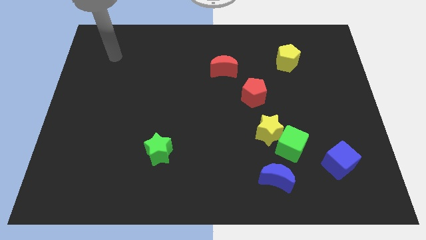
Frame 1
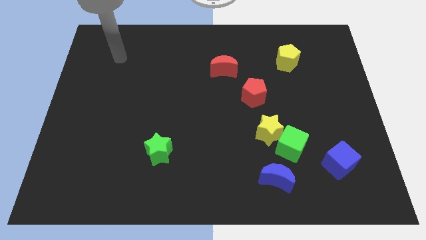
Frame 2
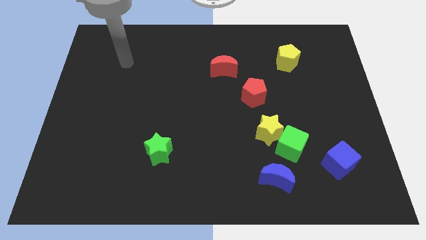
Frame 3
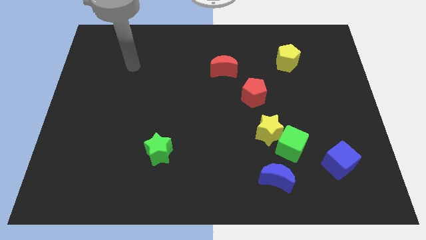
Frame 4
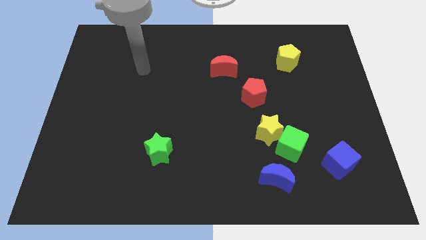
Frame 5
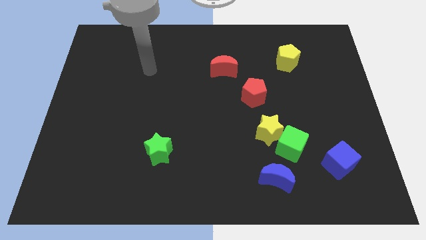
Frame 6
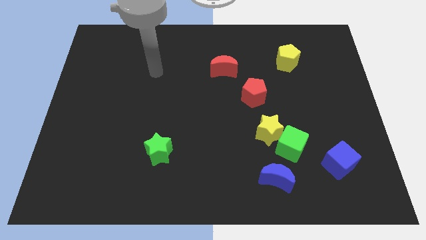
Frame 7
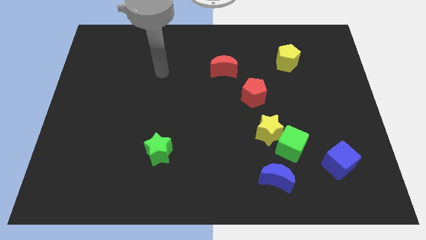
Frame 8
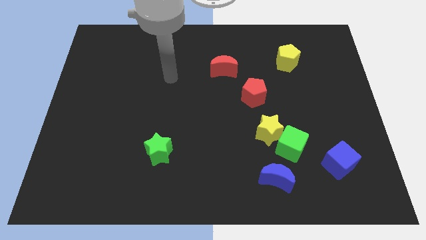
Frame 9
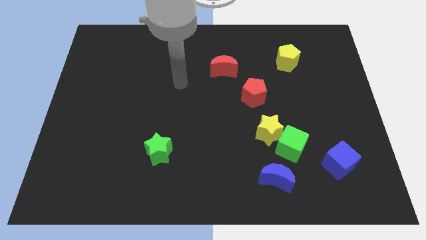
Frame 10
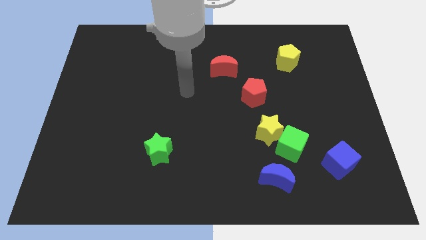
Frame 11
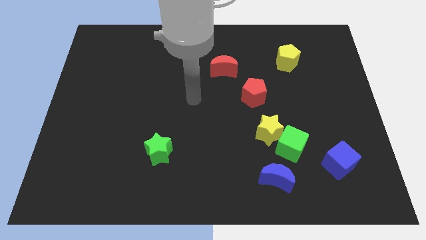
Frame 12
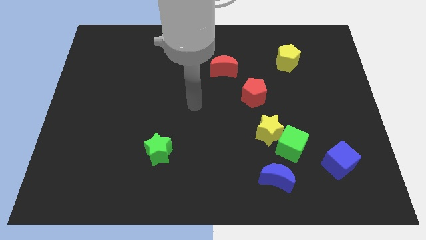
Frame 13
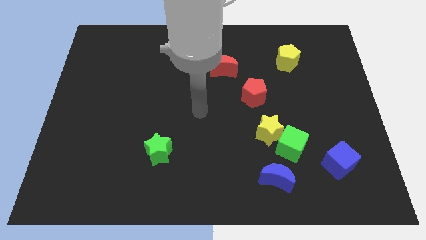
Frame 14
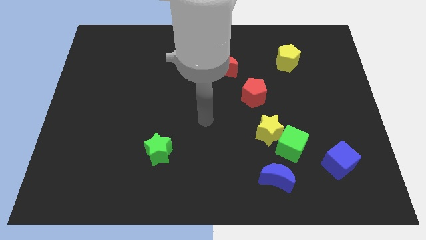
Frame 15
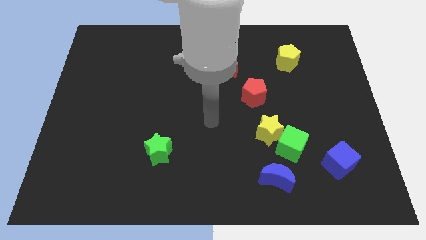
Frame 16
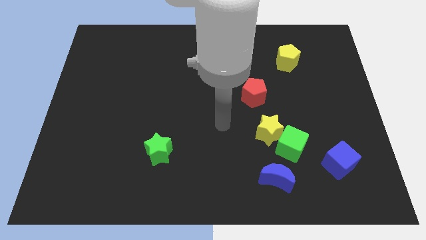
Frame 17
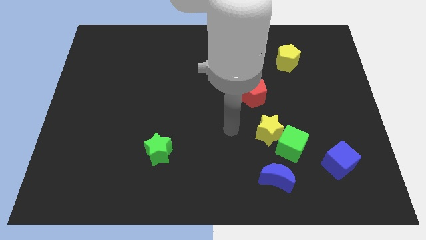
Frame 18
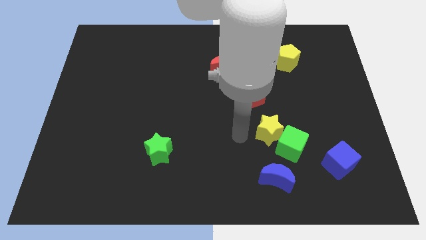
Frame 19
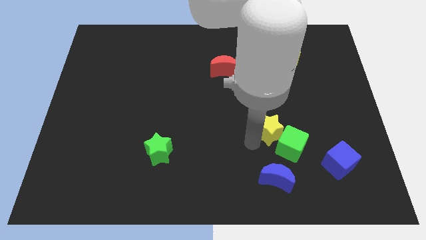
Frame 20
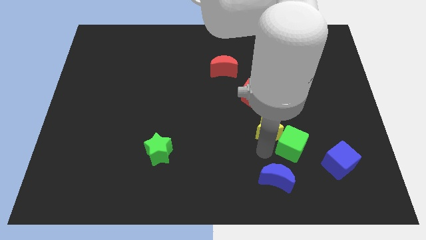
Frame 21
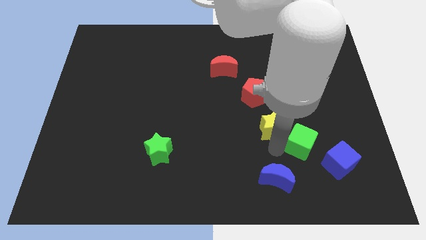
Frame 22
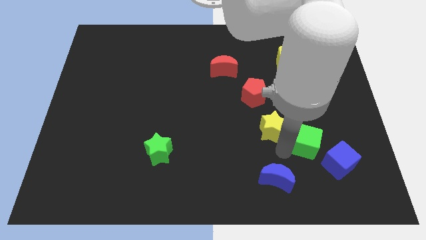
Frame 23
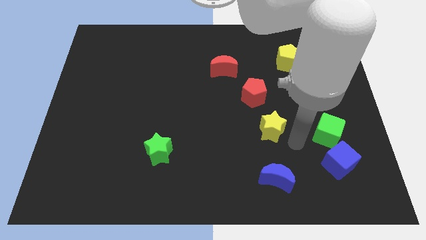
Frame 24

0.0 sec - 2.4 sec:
separate the yellow star from the green cube

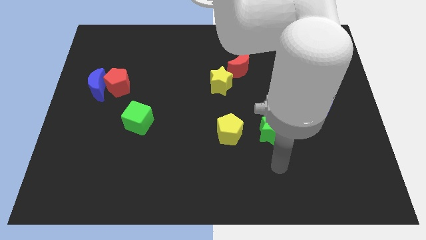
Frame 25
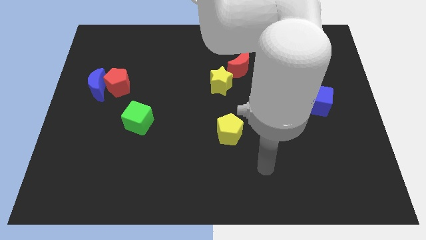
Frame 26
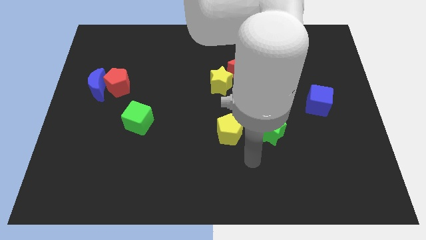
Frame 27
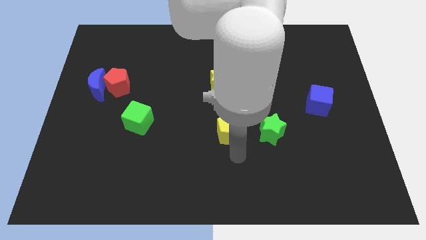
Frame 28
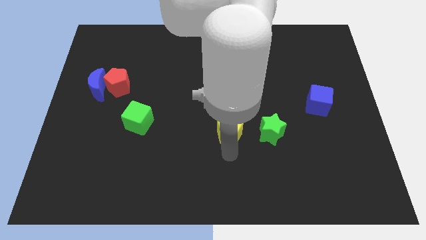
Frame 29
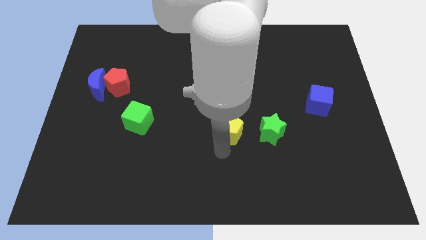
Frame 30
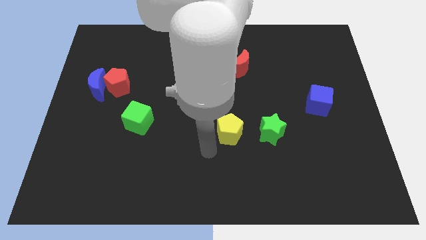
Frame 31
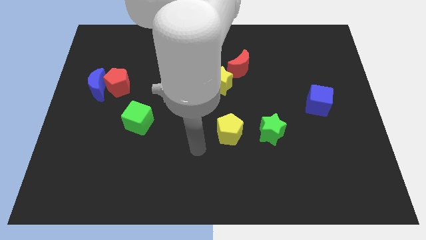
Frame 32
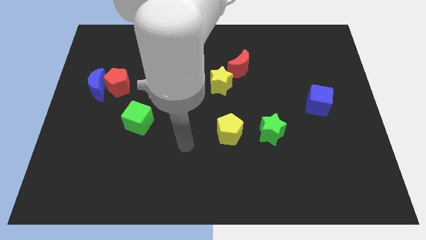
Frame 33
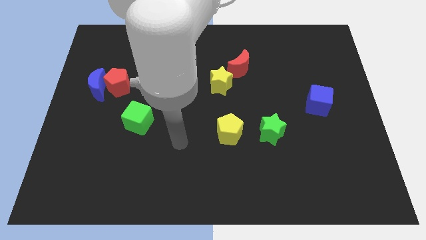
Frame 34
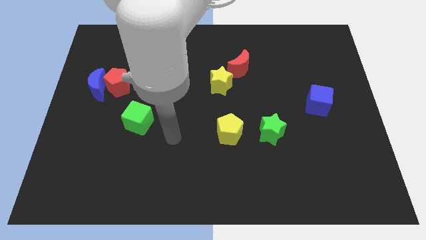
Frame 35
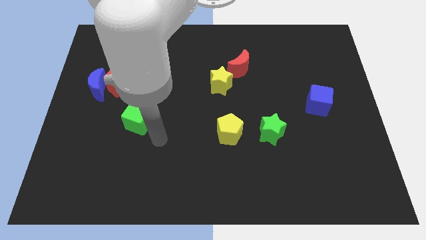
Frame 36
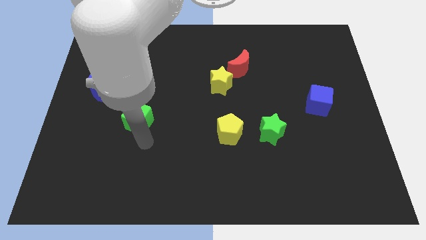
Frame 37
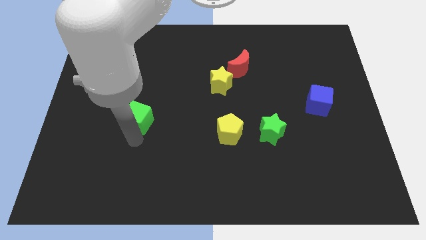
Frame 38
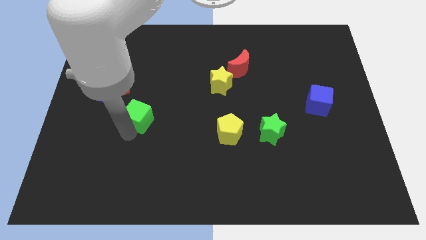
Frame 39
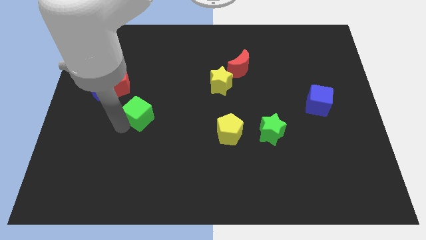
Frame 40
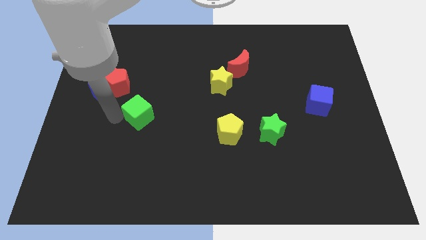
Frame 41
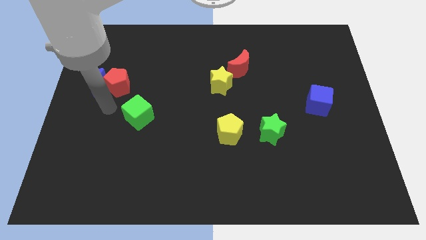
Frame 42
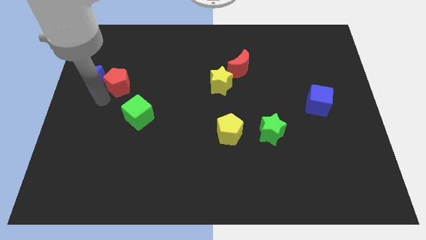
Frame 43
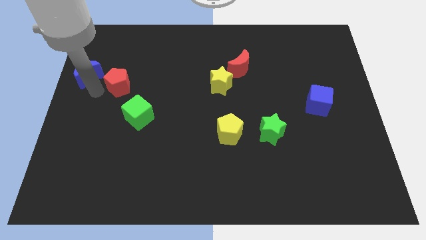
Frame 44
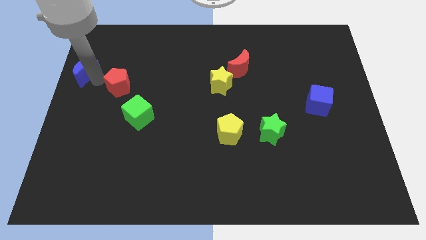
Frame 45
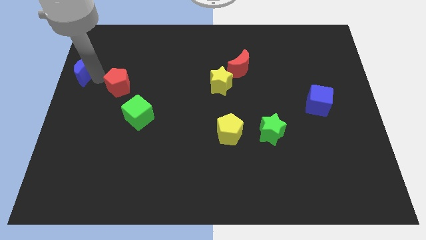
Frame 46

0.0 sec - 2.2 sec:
separate the red pentagon from the blue moon

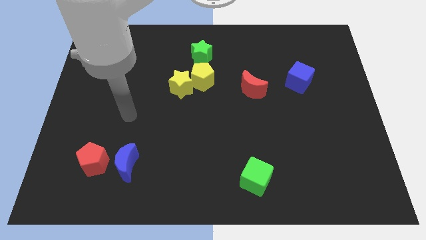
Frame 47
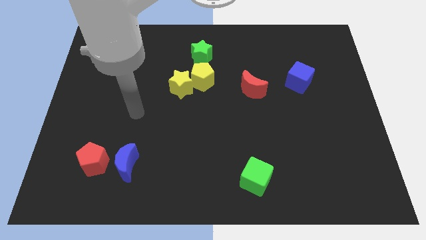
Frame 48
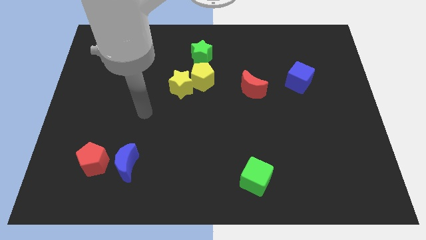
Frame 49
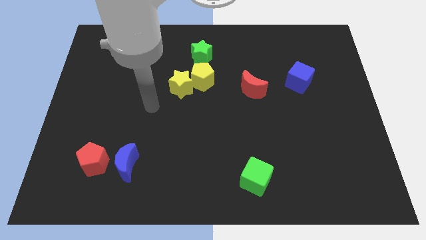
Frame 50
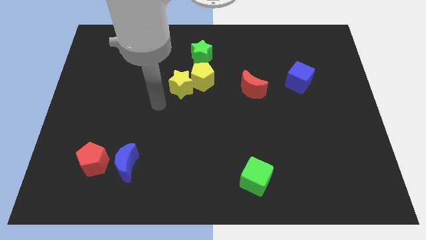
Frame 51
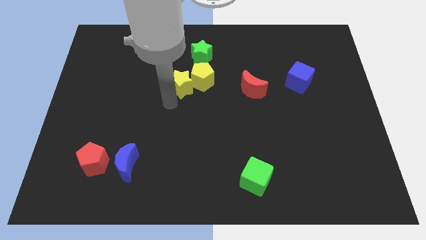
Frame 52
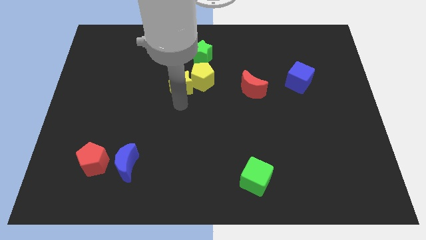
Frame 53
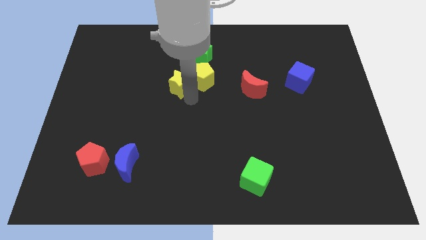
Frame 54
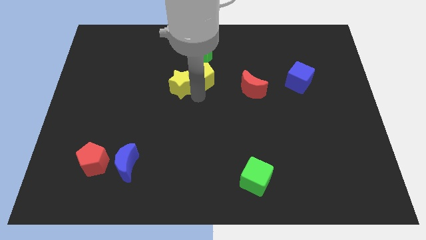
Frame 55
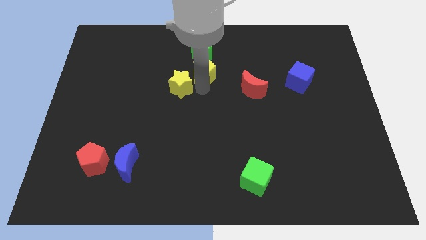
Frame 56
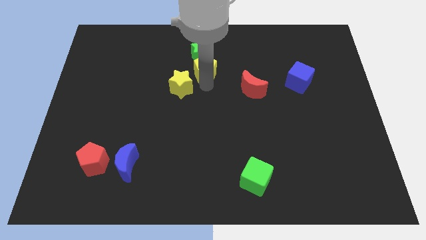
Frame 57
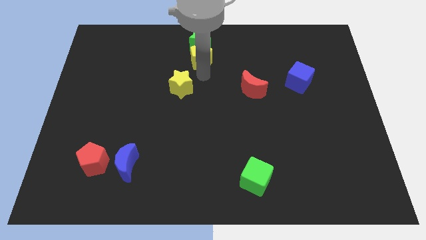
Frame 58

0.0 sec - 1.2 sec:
move the yellow star away from the yellow pentagon

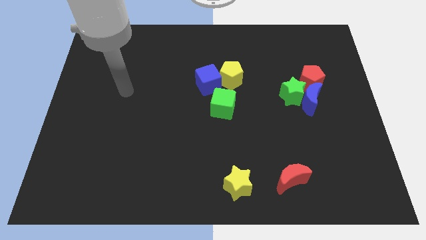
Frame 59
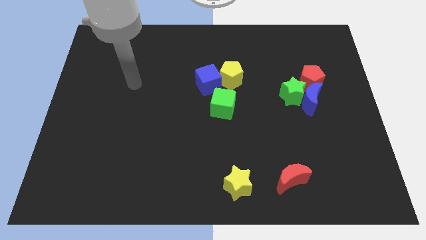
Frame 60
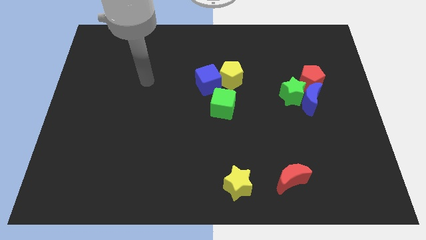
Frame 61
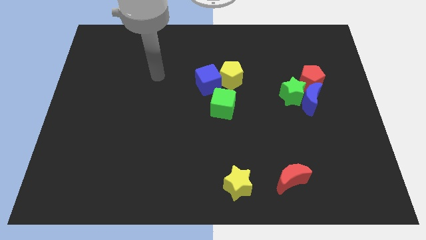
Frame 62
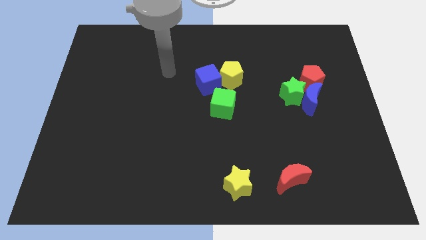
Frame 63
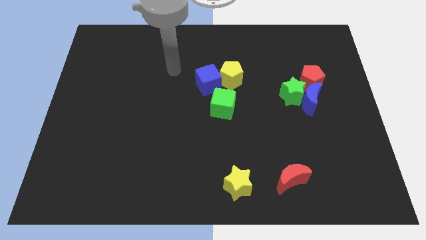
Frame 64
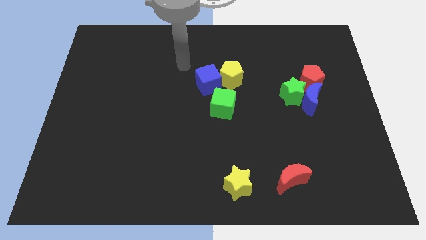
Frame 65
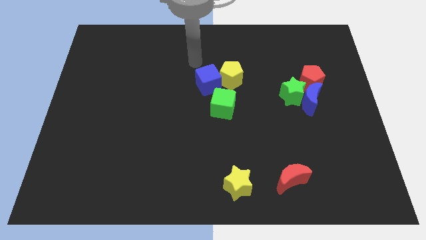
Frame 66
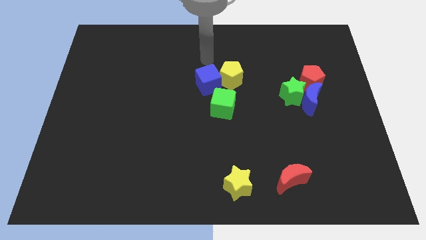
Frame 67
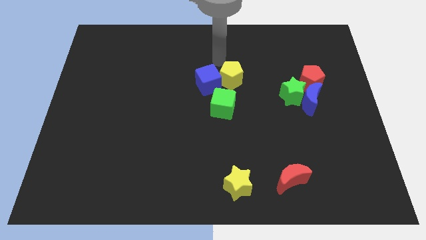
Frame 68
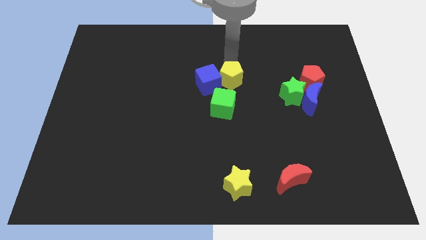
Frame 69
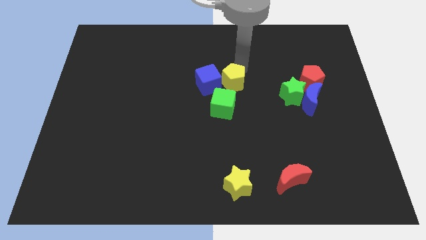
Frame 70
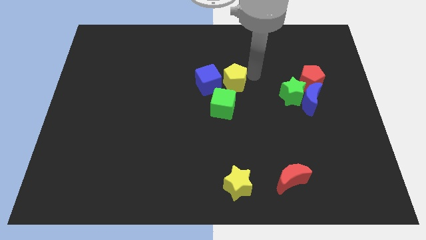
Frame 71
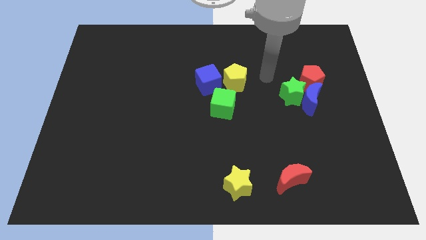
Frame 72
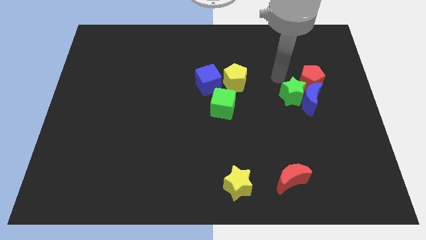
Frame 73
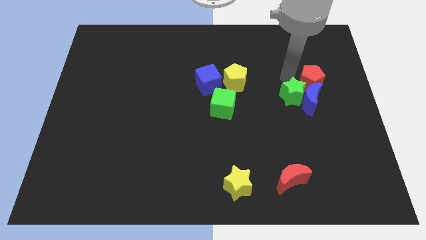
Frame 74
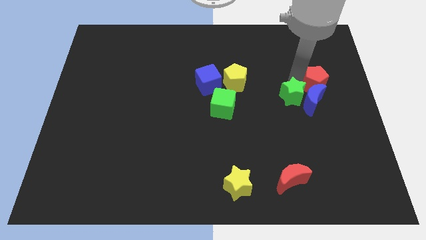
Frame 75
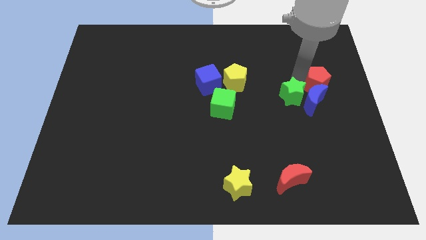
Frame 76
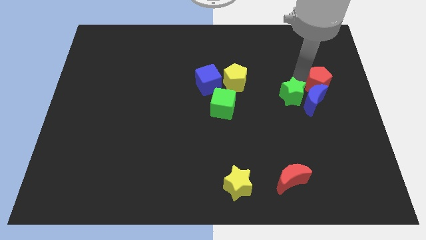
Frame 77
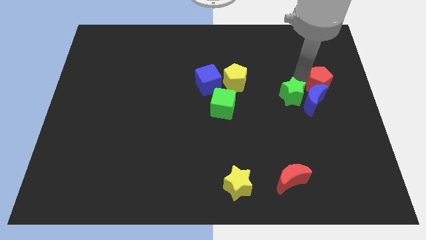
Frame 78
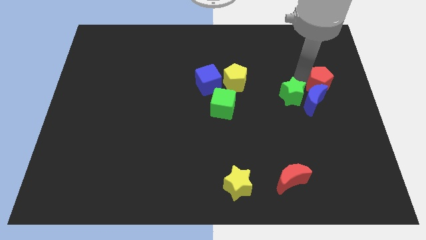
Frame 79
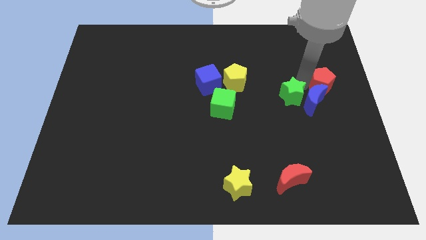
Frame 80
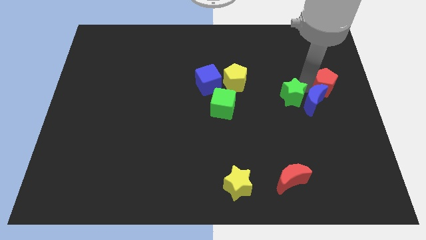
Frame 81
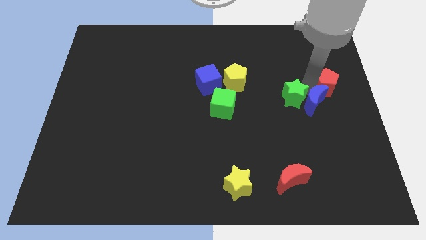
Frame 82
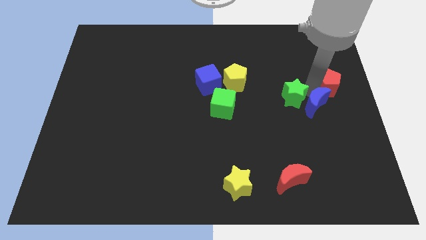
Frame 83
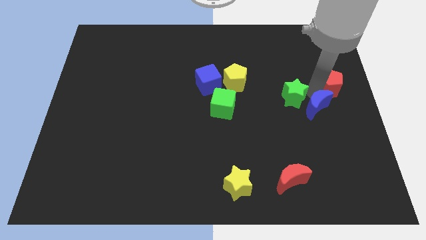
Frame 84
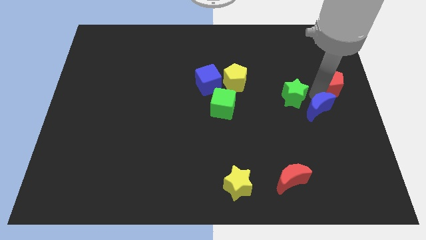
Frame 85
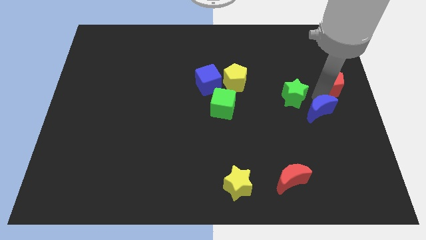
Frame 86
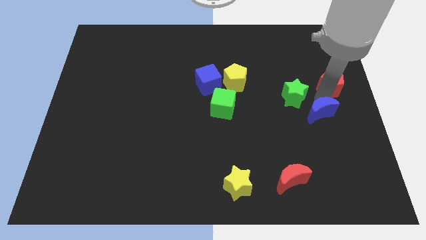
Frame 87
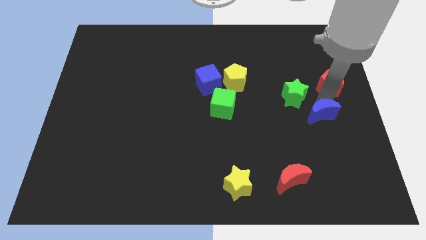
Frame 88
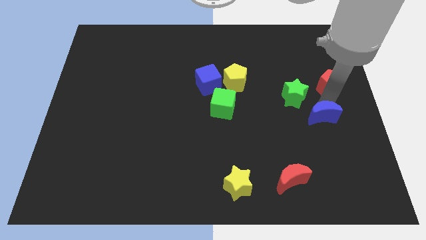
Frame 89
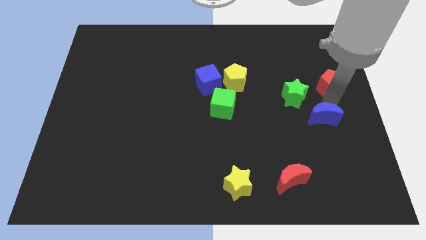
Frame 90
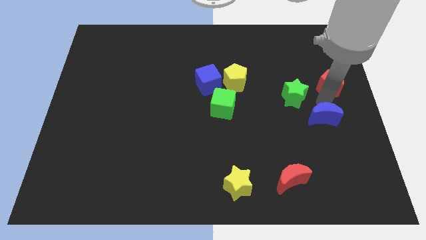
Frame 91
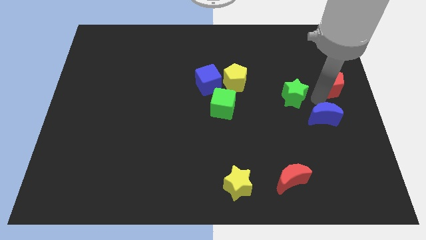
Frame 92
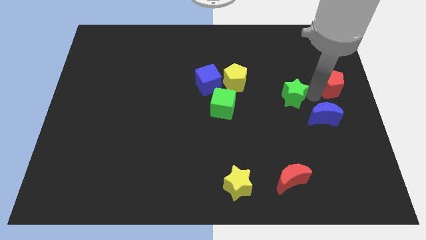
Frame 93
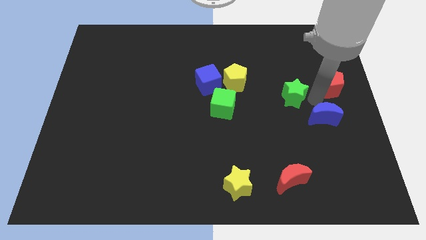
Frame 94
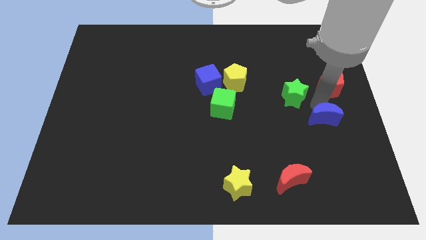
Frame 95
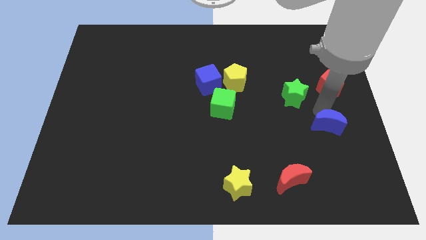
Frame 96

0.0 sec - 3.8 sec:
separate the blue moon from the green star and red pentagon
